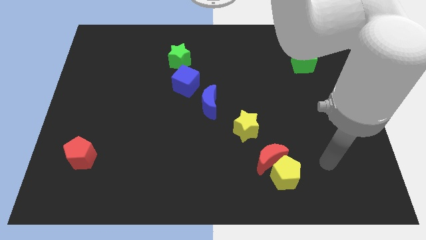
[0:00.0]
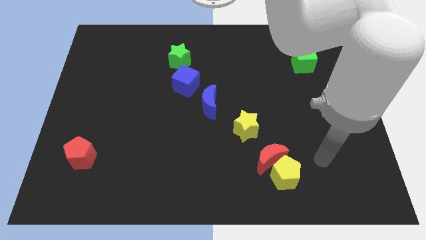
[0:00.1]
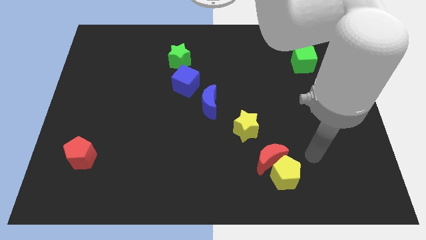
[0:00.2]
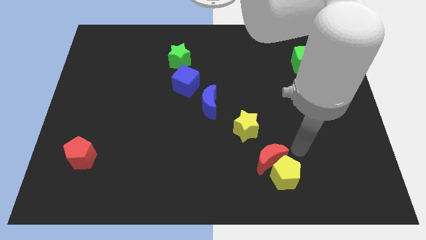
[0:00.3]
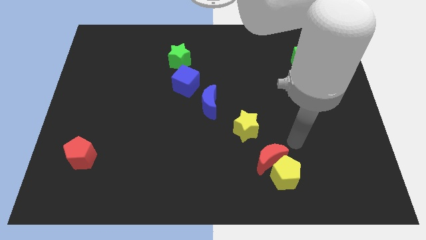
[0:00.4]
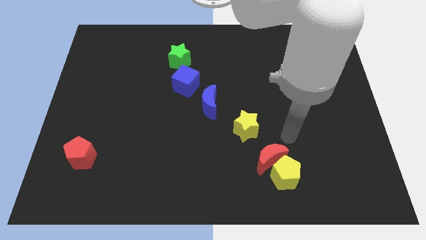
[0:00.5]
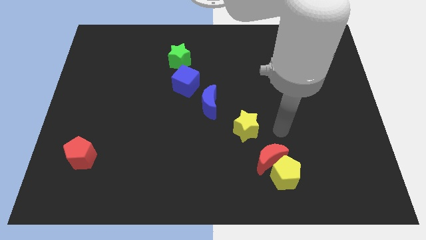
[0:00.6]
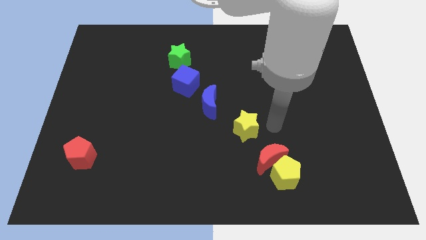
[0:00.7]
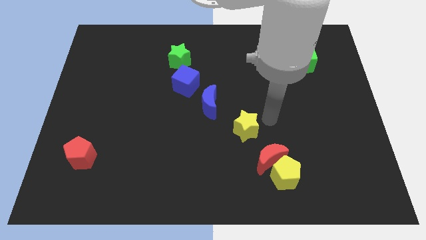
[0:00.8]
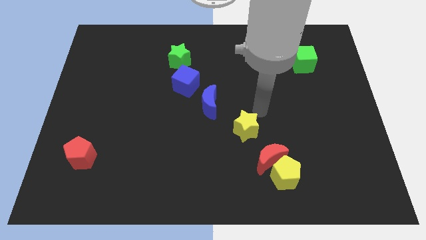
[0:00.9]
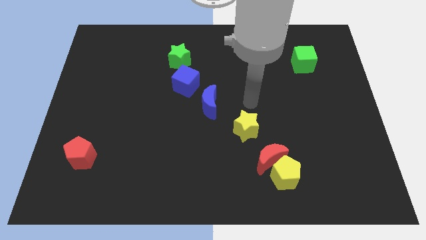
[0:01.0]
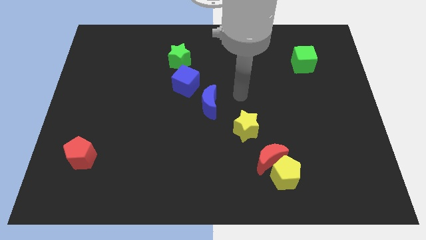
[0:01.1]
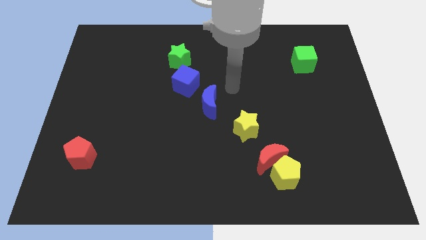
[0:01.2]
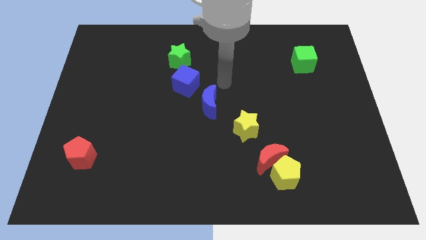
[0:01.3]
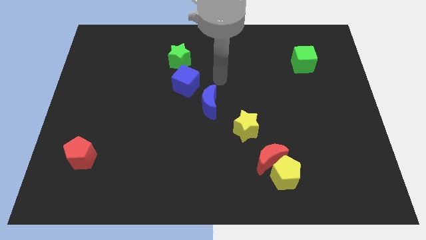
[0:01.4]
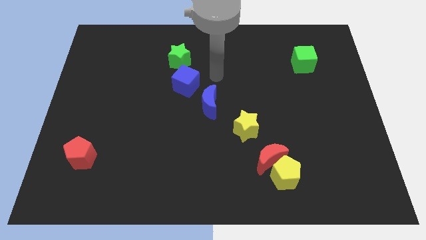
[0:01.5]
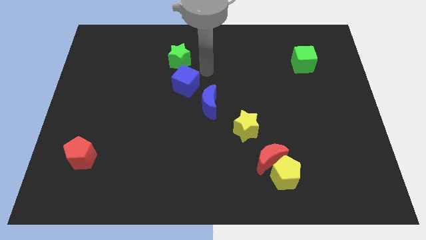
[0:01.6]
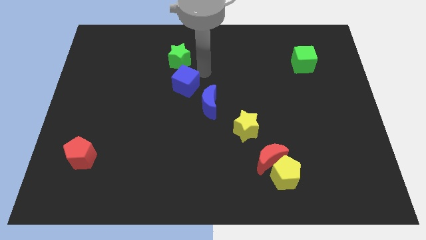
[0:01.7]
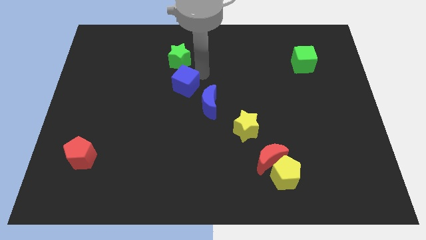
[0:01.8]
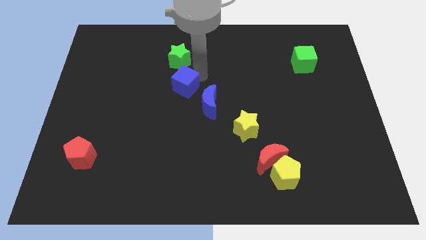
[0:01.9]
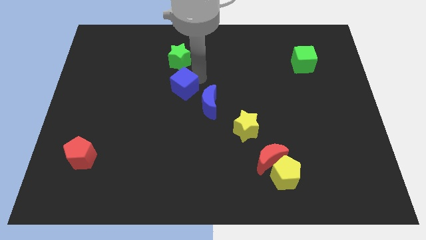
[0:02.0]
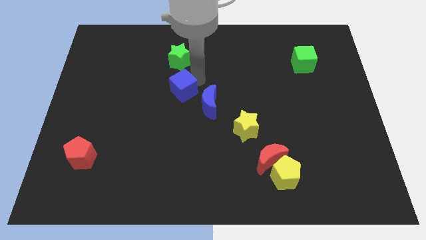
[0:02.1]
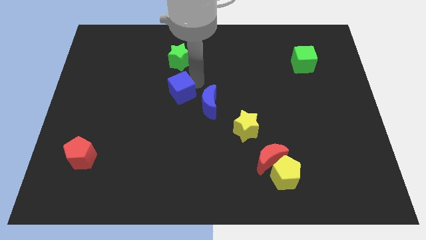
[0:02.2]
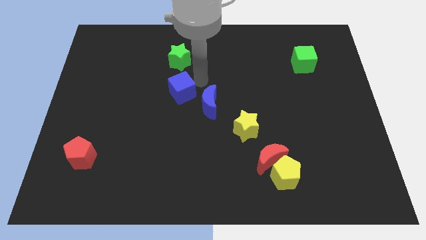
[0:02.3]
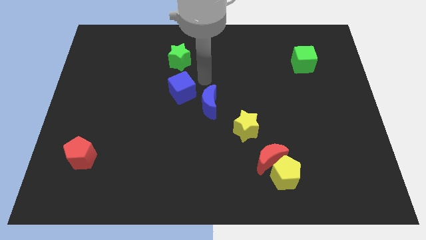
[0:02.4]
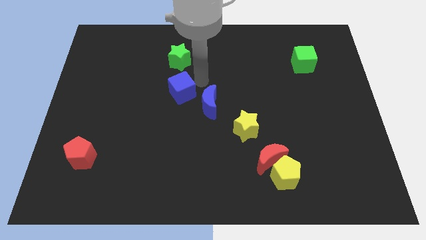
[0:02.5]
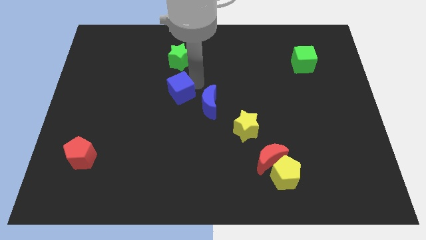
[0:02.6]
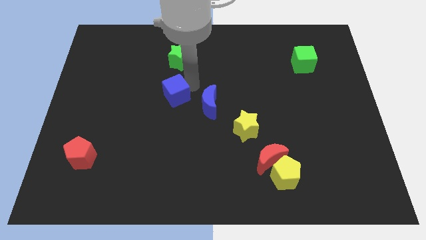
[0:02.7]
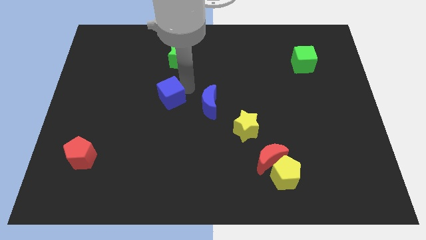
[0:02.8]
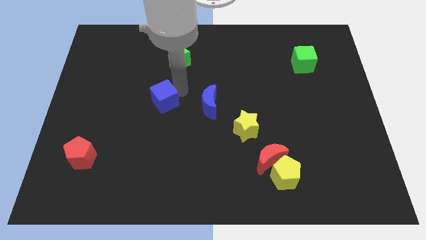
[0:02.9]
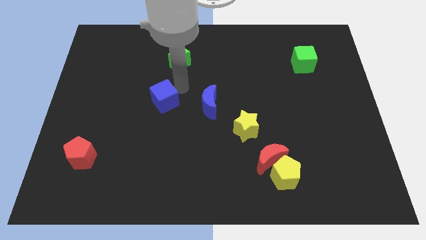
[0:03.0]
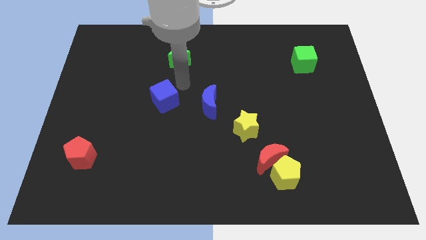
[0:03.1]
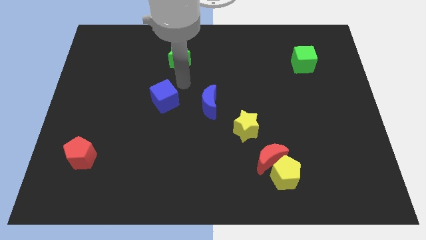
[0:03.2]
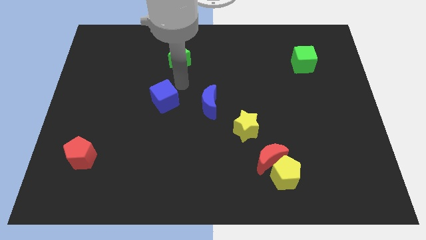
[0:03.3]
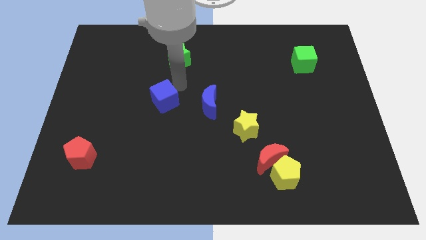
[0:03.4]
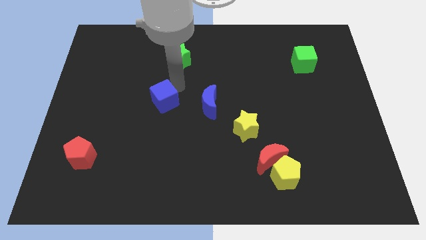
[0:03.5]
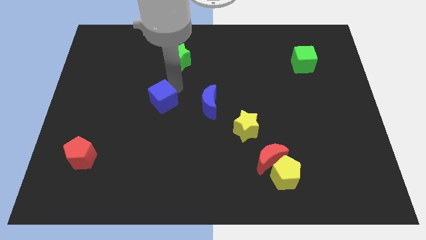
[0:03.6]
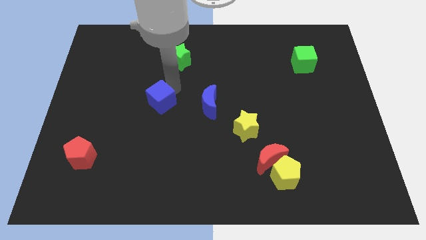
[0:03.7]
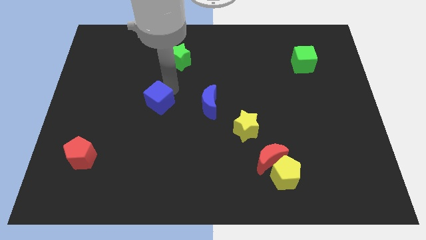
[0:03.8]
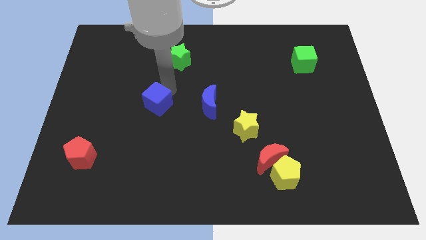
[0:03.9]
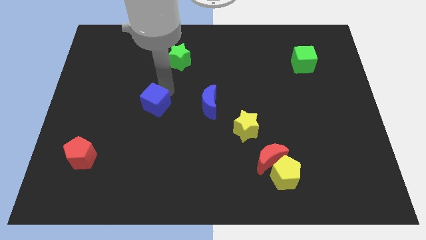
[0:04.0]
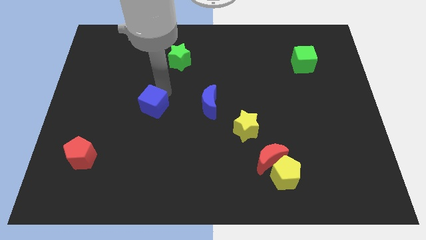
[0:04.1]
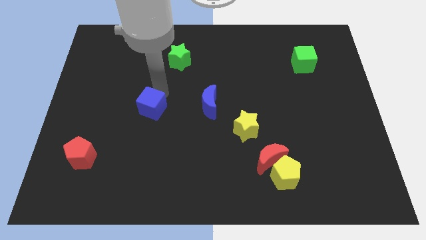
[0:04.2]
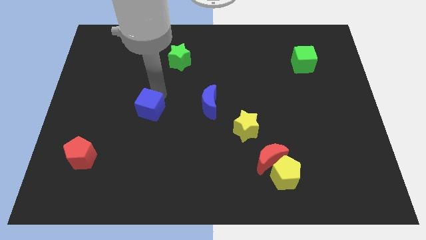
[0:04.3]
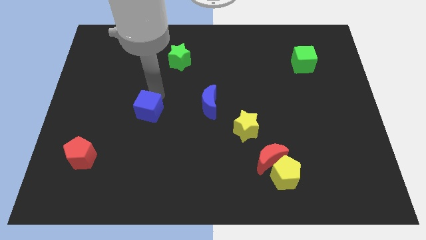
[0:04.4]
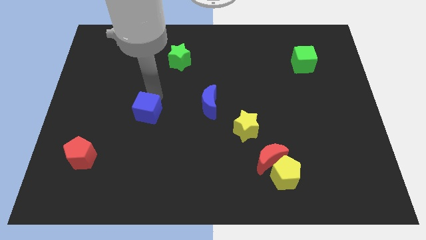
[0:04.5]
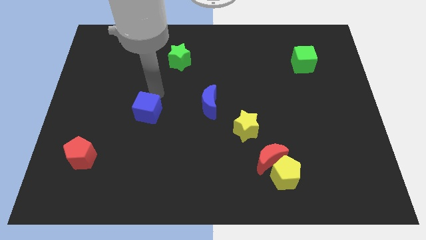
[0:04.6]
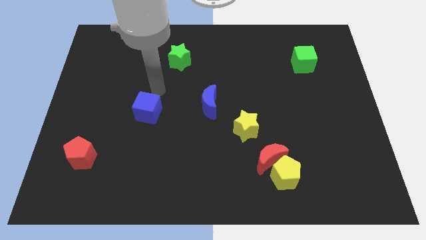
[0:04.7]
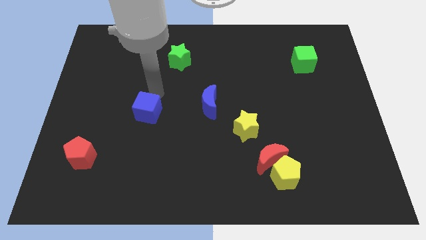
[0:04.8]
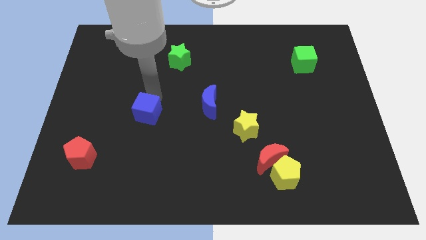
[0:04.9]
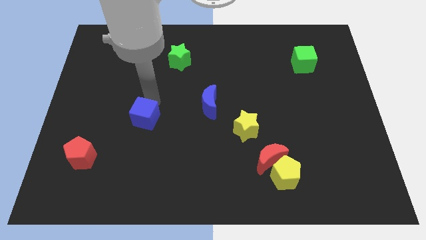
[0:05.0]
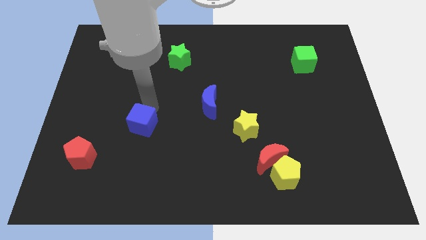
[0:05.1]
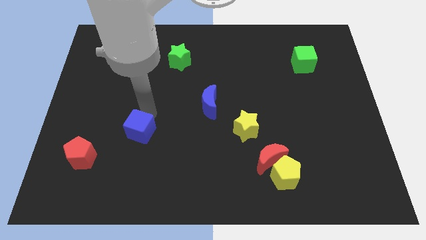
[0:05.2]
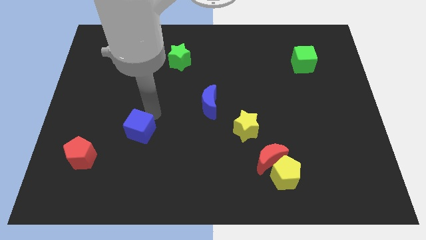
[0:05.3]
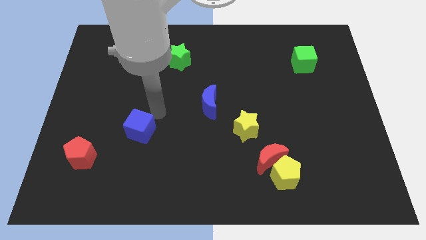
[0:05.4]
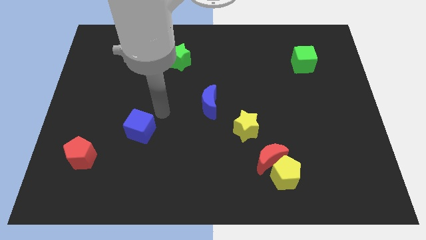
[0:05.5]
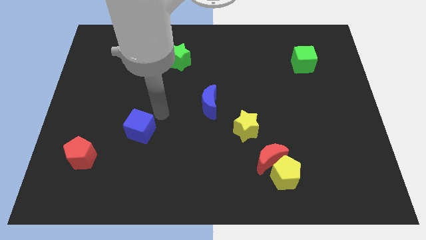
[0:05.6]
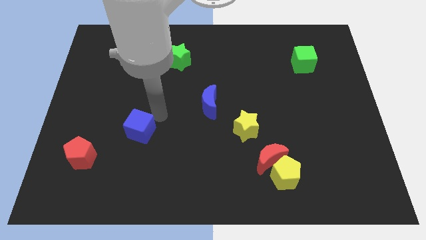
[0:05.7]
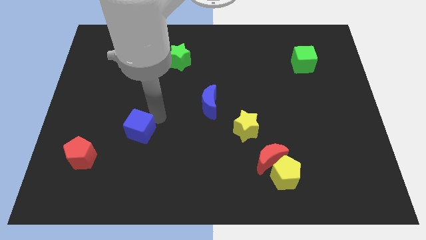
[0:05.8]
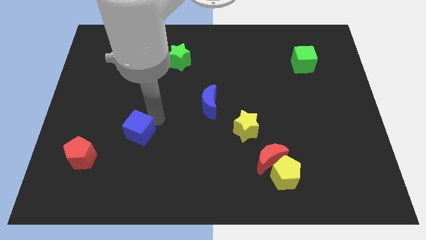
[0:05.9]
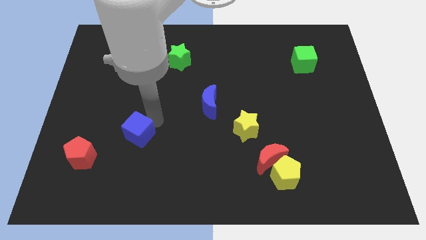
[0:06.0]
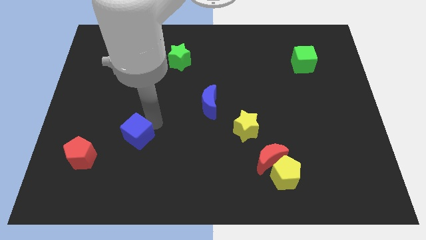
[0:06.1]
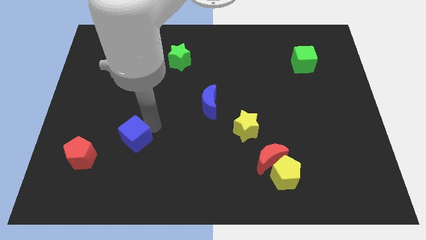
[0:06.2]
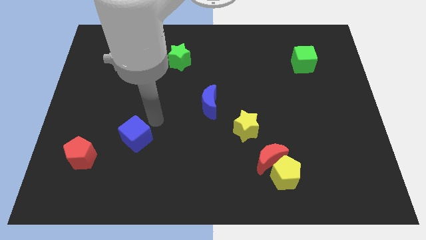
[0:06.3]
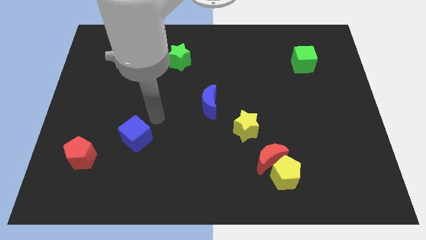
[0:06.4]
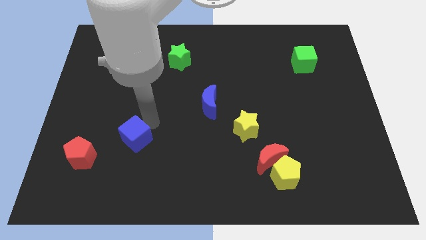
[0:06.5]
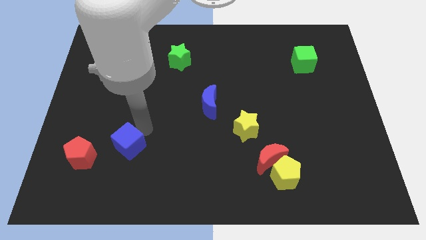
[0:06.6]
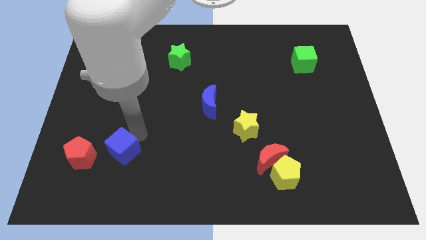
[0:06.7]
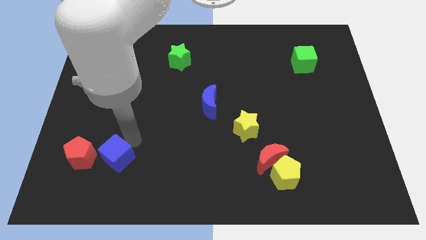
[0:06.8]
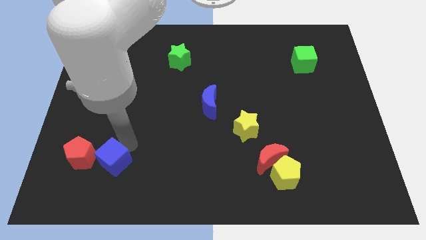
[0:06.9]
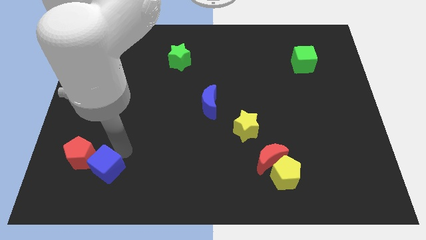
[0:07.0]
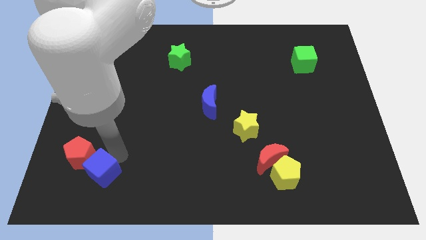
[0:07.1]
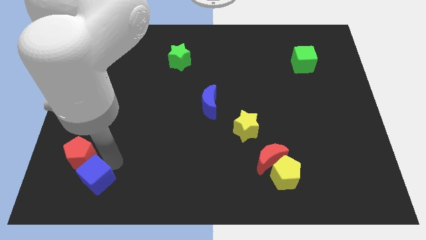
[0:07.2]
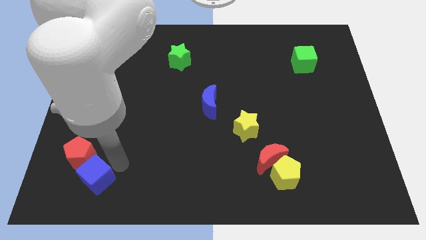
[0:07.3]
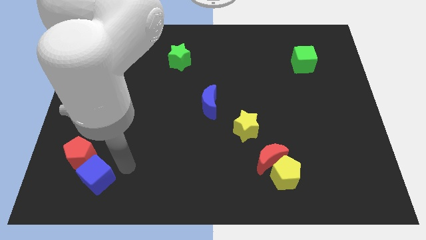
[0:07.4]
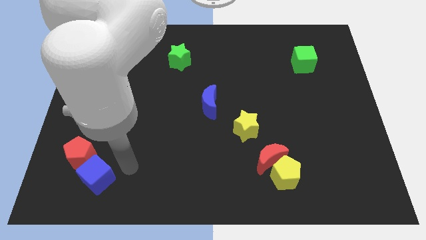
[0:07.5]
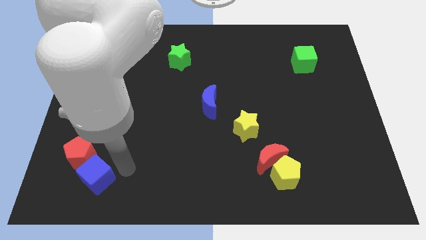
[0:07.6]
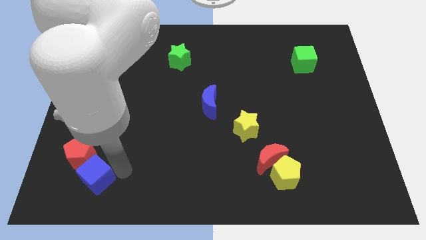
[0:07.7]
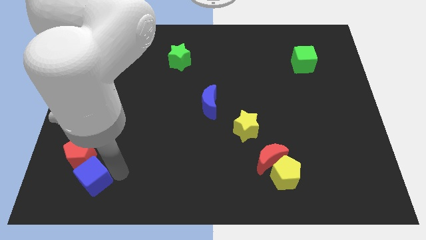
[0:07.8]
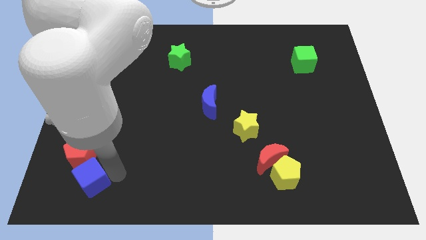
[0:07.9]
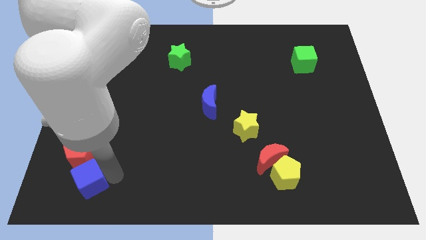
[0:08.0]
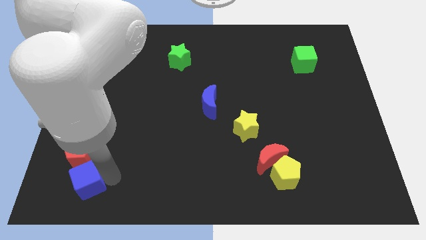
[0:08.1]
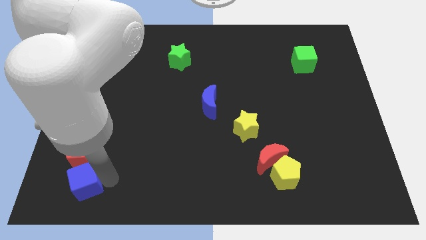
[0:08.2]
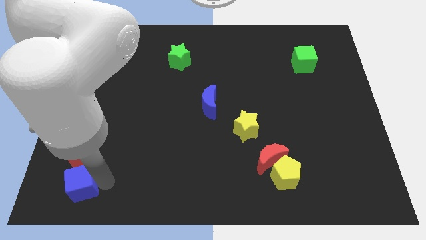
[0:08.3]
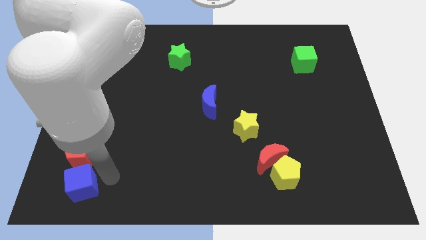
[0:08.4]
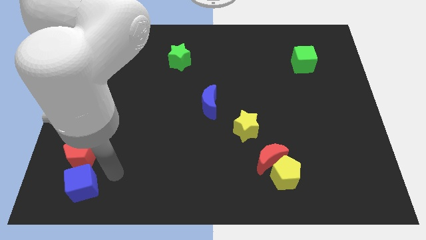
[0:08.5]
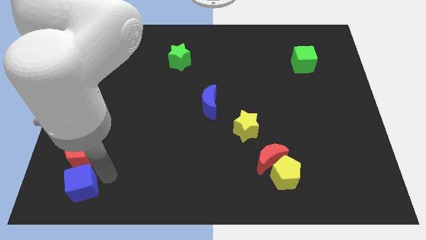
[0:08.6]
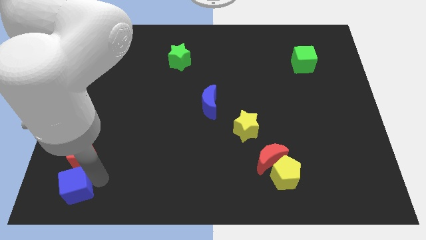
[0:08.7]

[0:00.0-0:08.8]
slide the blue cube to the lower left corner
